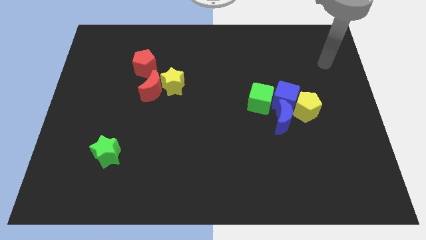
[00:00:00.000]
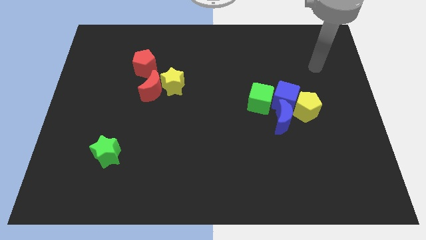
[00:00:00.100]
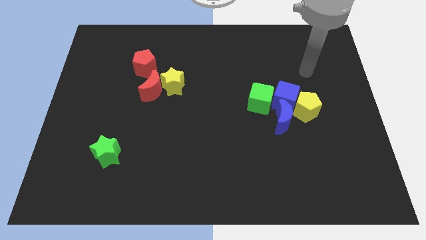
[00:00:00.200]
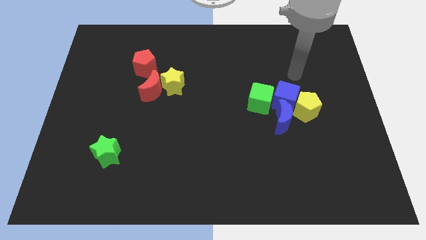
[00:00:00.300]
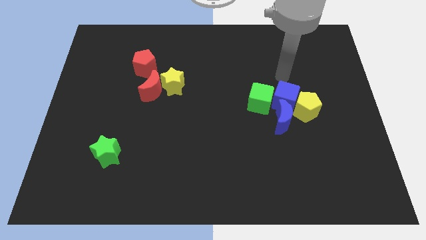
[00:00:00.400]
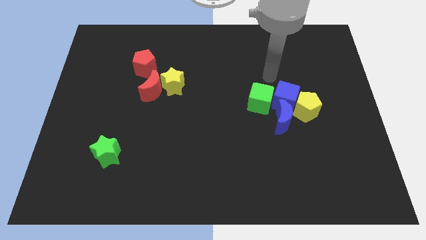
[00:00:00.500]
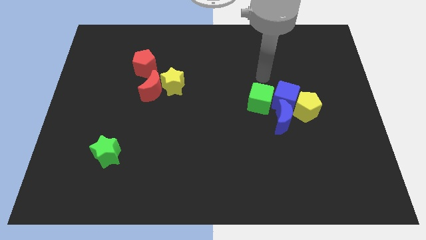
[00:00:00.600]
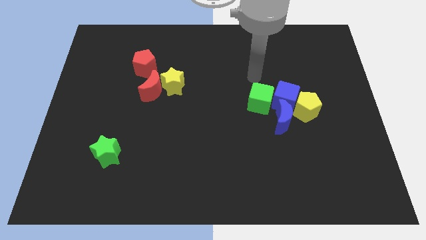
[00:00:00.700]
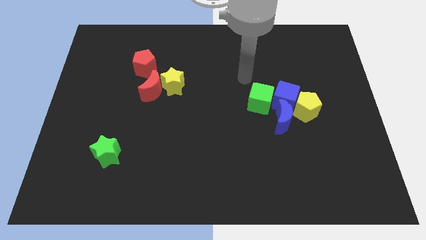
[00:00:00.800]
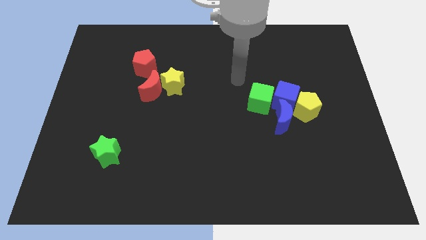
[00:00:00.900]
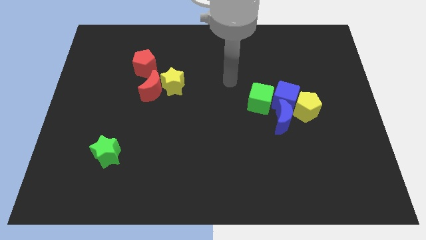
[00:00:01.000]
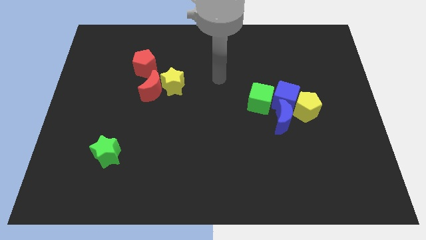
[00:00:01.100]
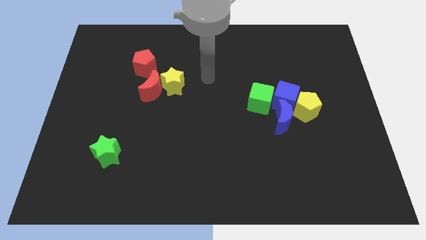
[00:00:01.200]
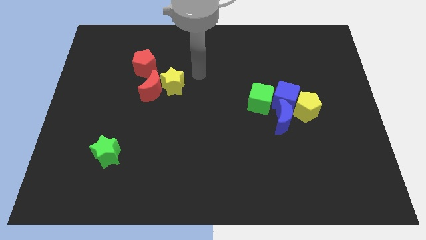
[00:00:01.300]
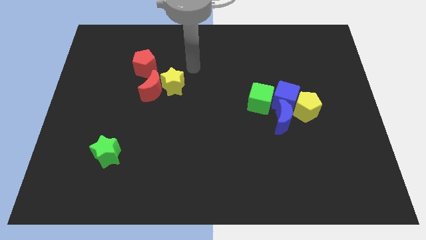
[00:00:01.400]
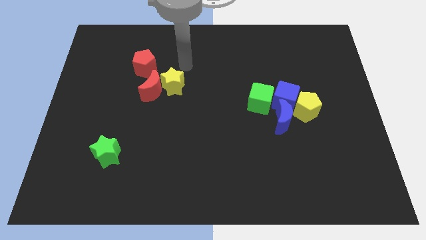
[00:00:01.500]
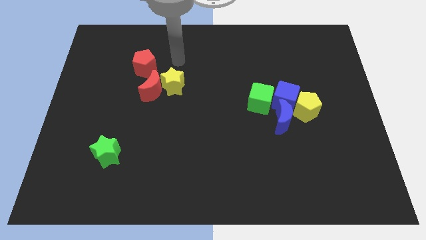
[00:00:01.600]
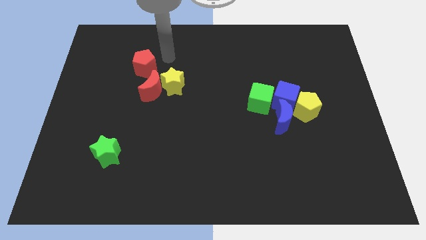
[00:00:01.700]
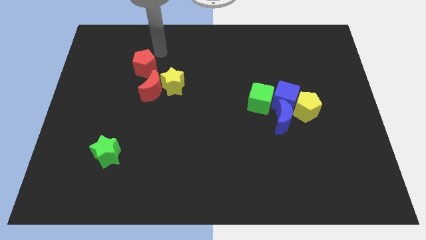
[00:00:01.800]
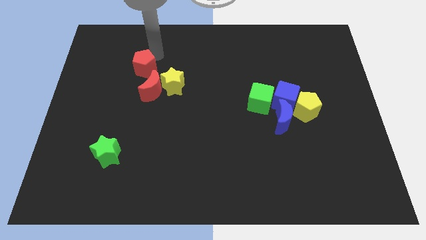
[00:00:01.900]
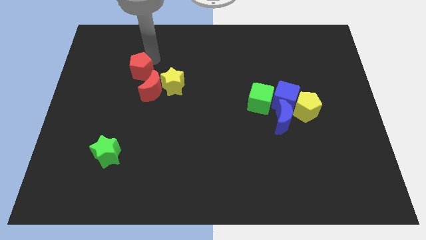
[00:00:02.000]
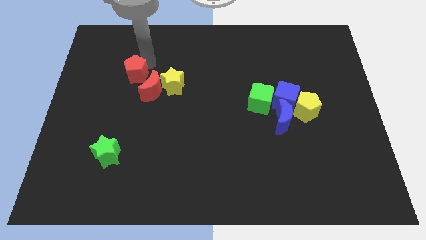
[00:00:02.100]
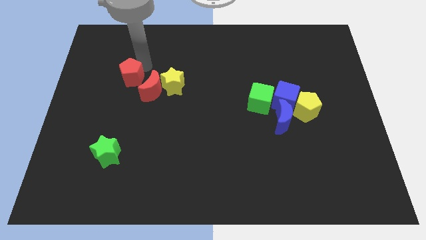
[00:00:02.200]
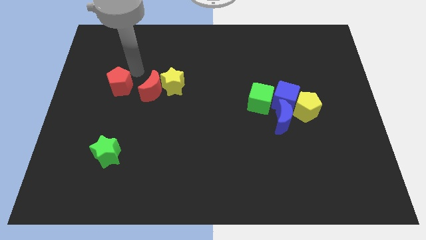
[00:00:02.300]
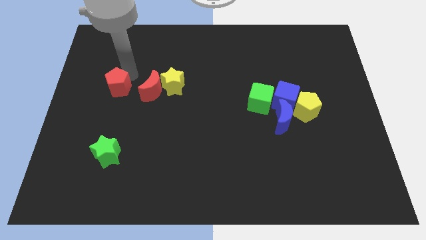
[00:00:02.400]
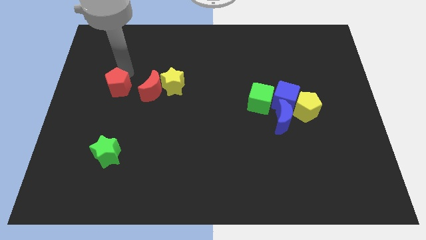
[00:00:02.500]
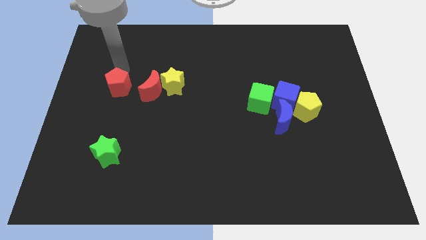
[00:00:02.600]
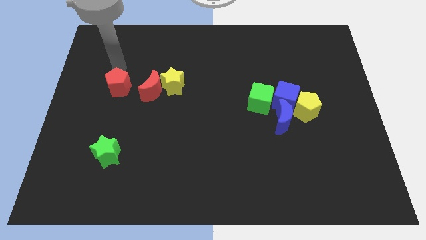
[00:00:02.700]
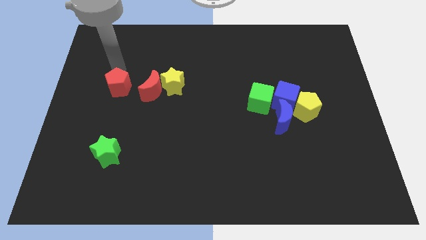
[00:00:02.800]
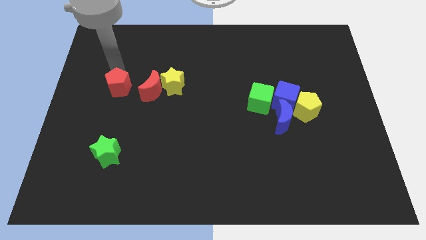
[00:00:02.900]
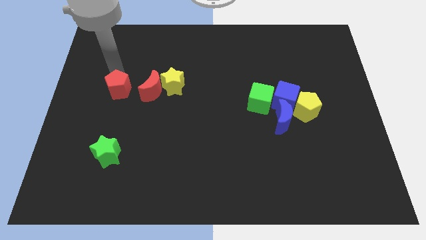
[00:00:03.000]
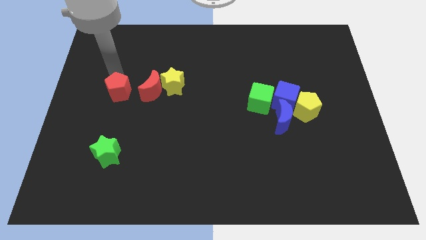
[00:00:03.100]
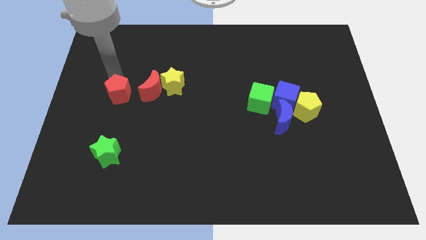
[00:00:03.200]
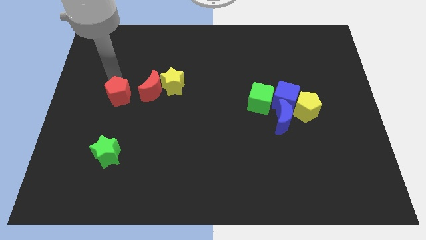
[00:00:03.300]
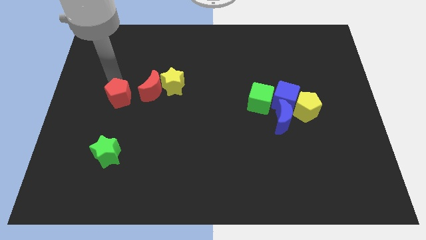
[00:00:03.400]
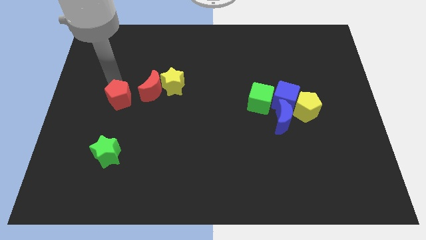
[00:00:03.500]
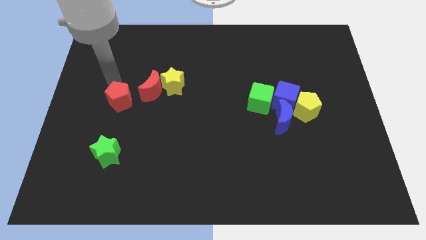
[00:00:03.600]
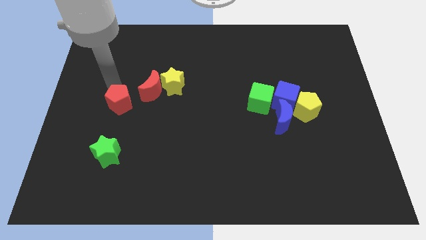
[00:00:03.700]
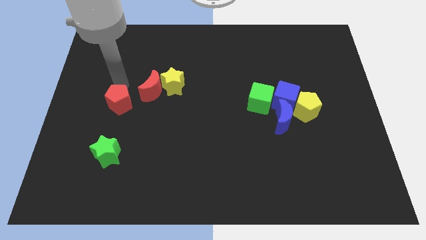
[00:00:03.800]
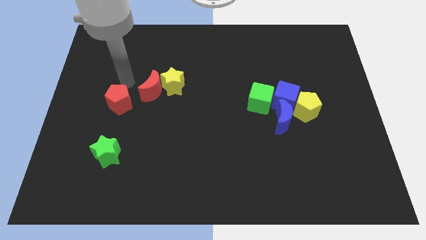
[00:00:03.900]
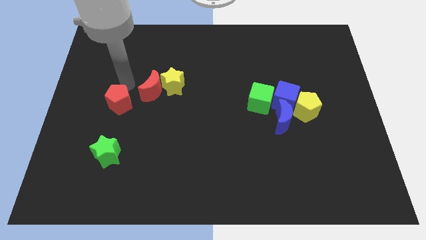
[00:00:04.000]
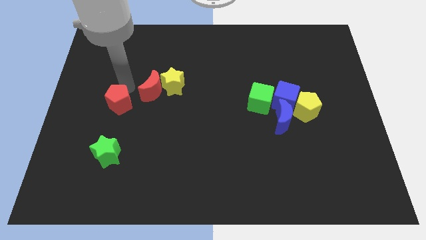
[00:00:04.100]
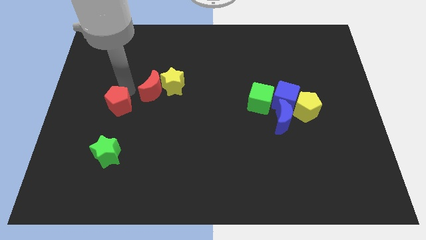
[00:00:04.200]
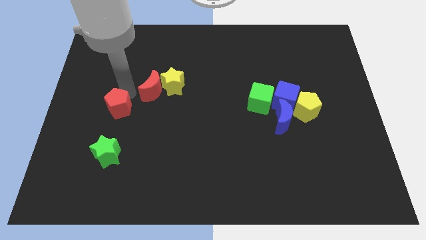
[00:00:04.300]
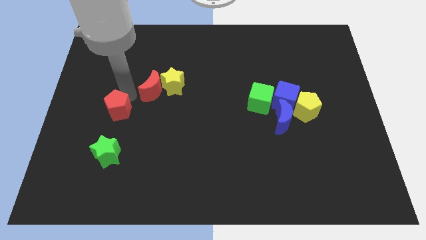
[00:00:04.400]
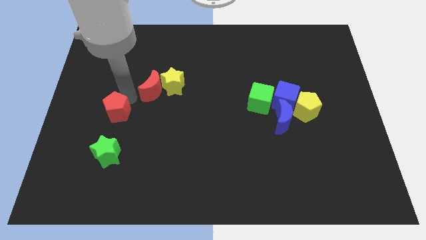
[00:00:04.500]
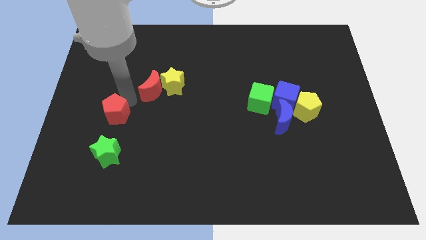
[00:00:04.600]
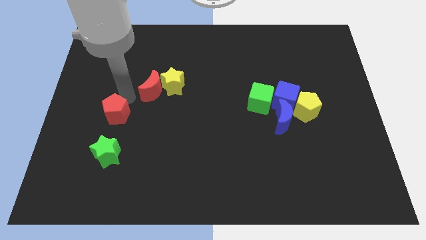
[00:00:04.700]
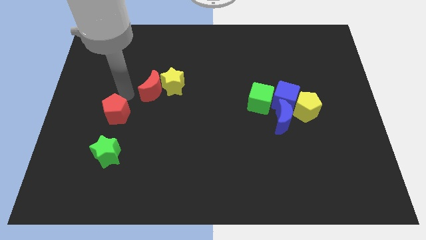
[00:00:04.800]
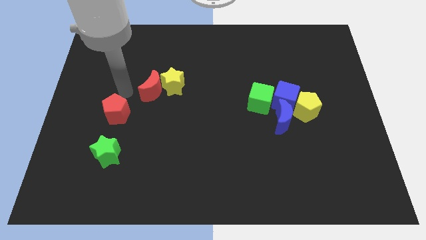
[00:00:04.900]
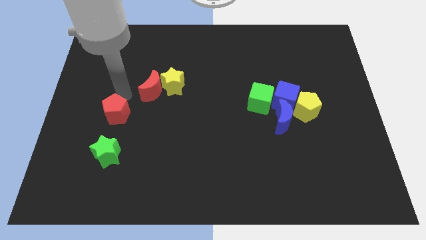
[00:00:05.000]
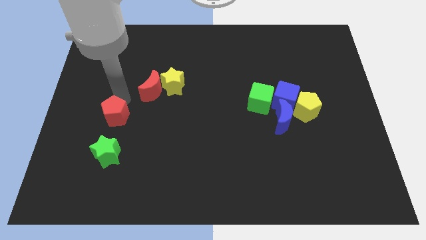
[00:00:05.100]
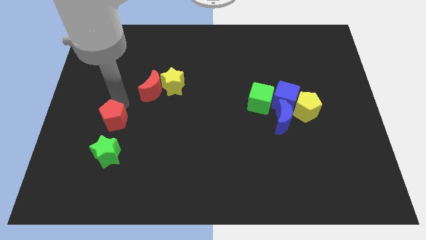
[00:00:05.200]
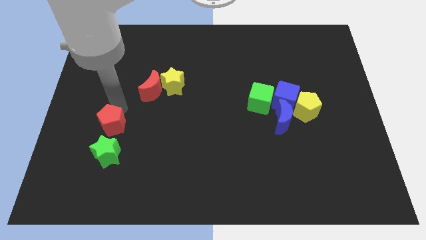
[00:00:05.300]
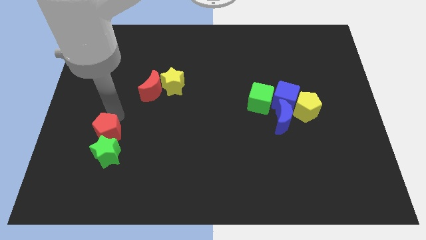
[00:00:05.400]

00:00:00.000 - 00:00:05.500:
push the red pentagon to the green star

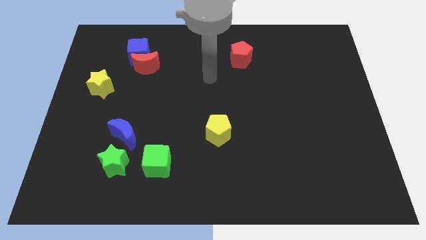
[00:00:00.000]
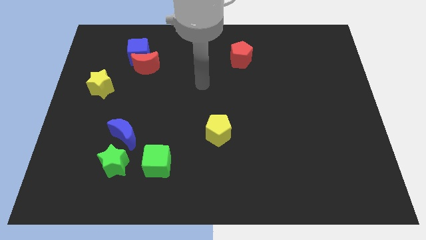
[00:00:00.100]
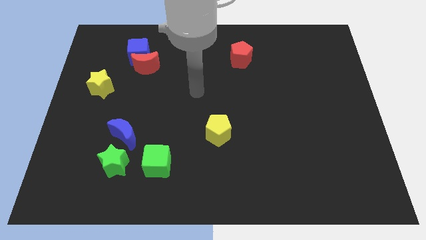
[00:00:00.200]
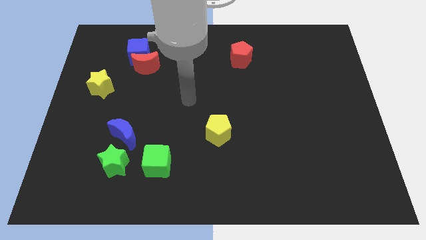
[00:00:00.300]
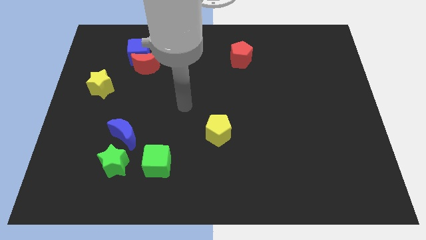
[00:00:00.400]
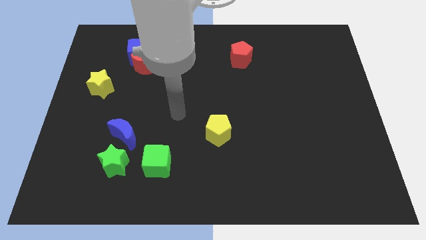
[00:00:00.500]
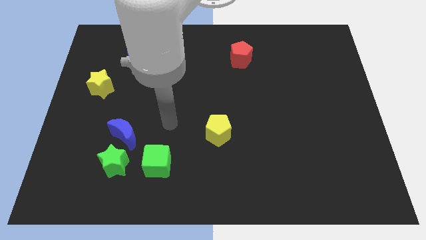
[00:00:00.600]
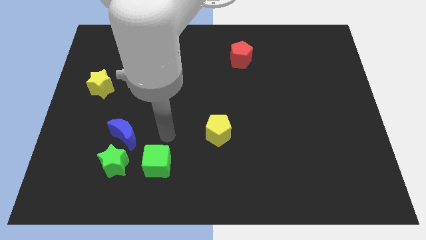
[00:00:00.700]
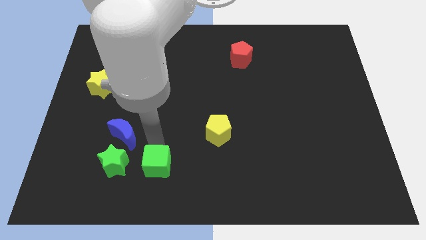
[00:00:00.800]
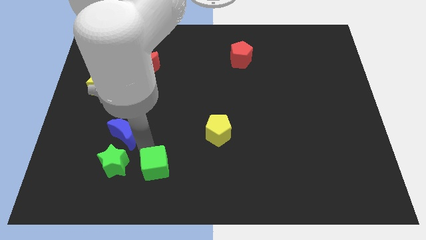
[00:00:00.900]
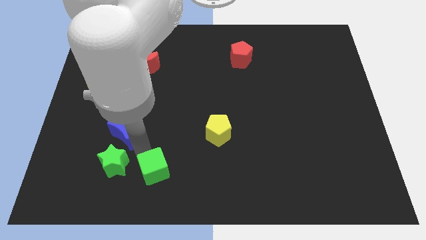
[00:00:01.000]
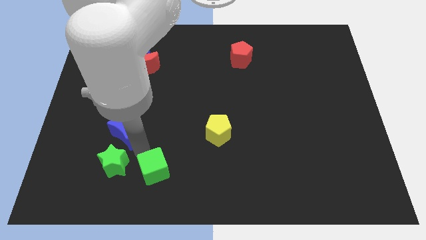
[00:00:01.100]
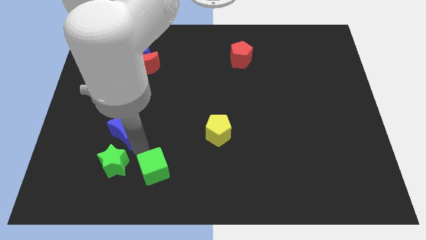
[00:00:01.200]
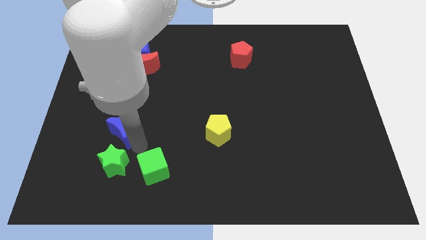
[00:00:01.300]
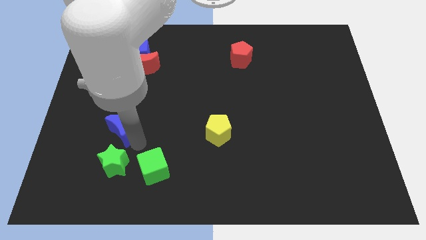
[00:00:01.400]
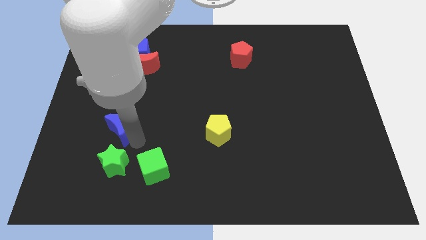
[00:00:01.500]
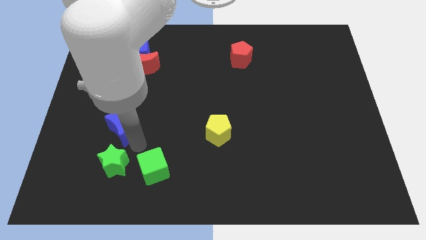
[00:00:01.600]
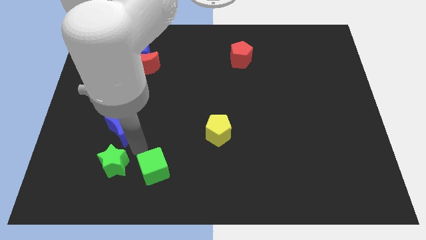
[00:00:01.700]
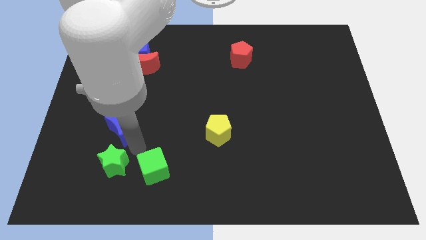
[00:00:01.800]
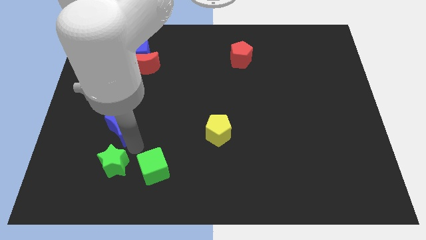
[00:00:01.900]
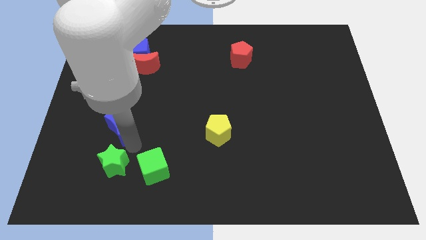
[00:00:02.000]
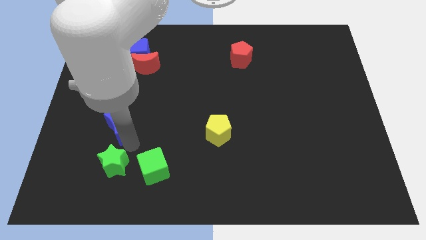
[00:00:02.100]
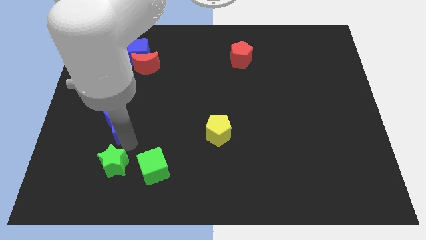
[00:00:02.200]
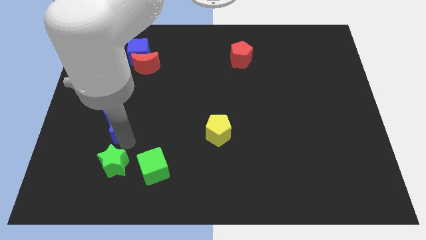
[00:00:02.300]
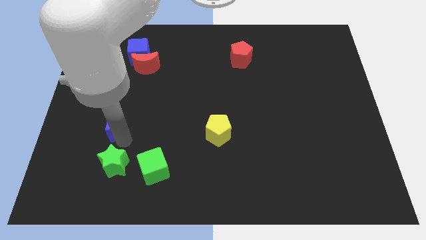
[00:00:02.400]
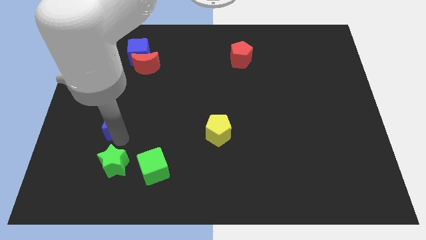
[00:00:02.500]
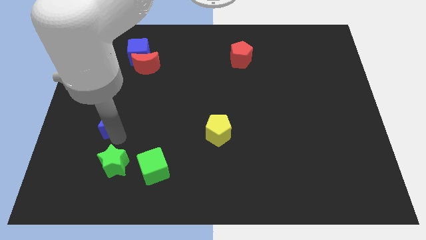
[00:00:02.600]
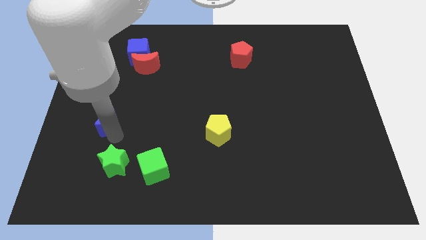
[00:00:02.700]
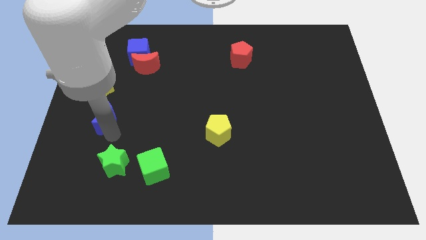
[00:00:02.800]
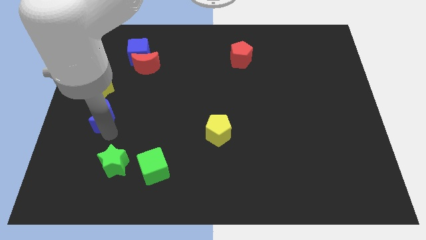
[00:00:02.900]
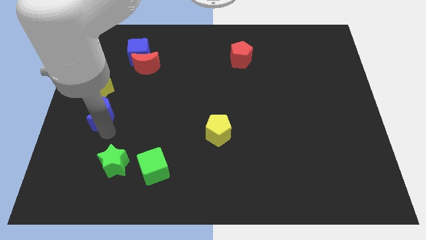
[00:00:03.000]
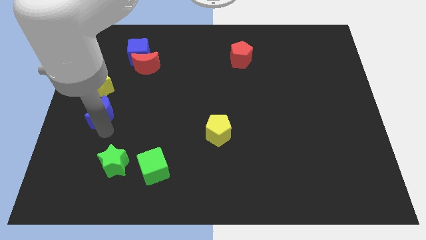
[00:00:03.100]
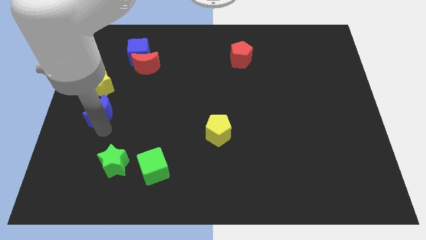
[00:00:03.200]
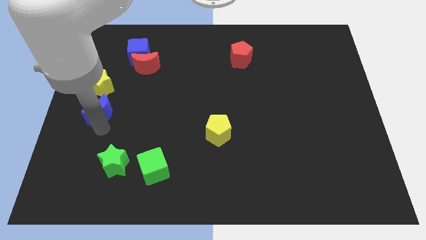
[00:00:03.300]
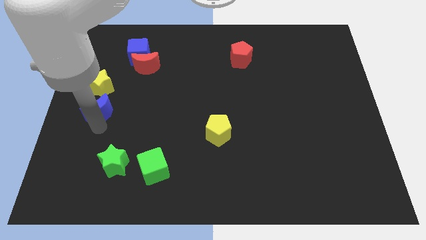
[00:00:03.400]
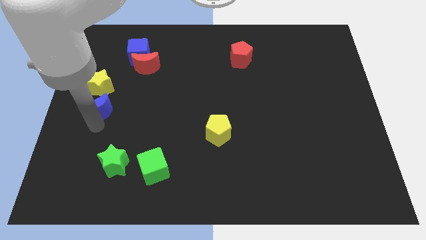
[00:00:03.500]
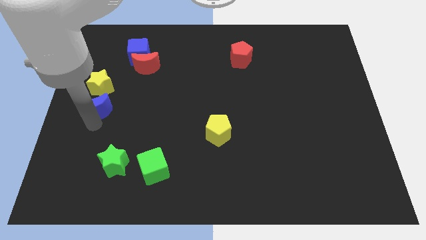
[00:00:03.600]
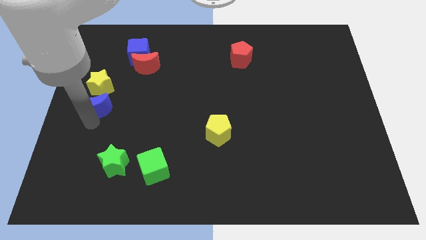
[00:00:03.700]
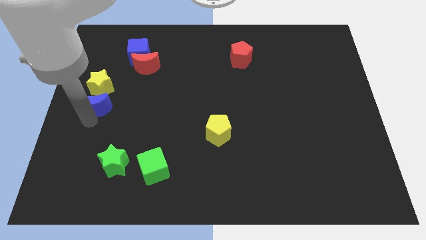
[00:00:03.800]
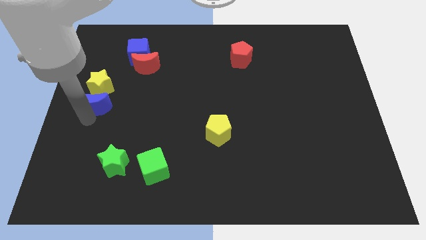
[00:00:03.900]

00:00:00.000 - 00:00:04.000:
move the blue moon to the yellow star
